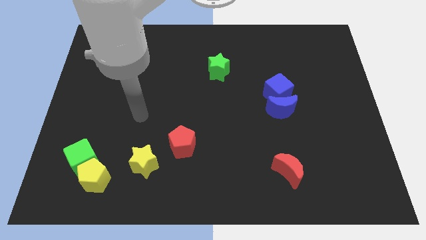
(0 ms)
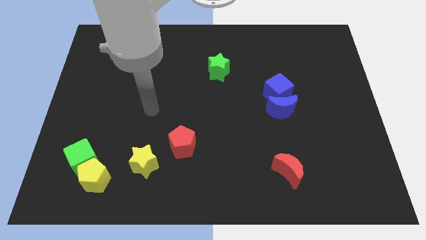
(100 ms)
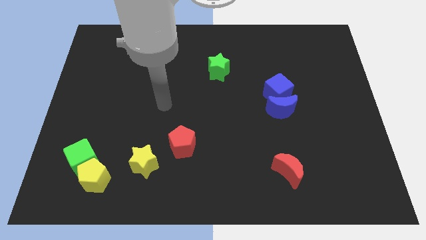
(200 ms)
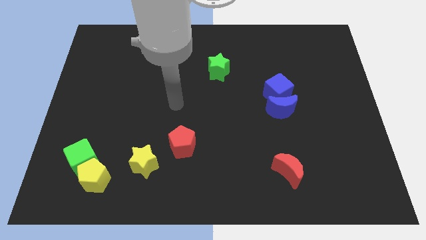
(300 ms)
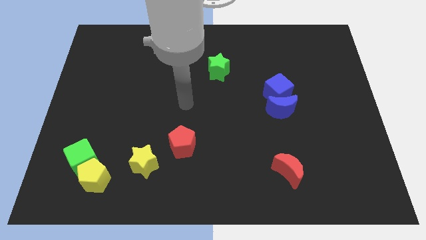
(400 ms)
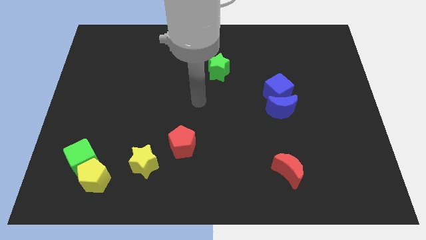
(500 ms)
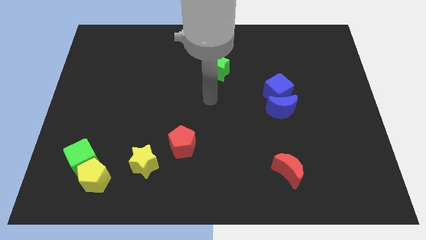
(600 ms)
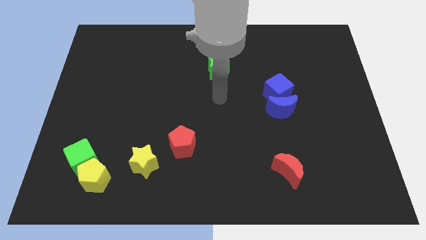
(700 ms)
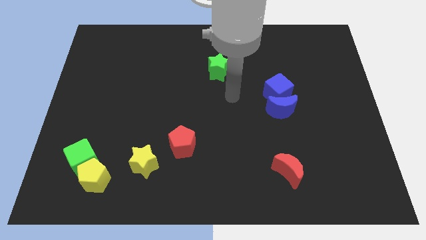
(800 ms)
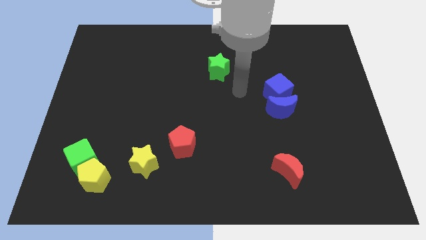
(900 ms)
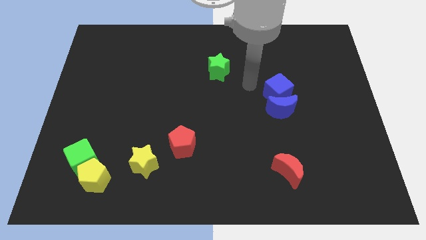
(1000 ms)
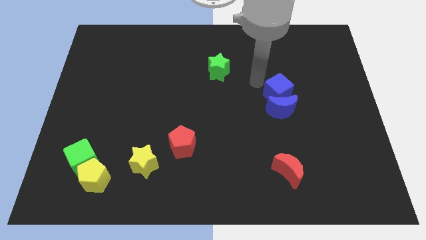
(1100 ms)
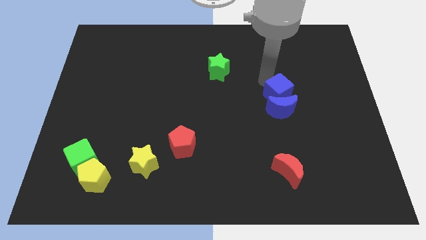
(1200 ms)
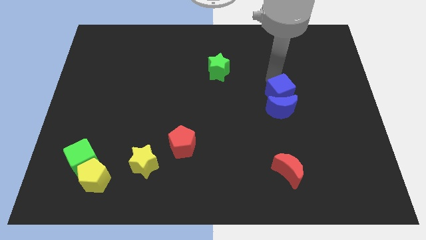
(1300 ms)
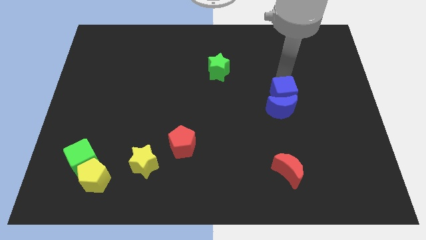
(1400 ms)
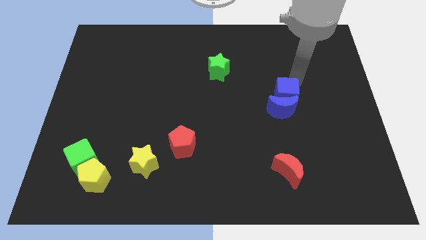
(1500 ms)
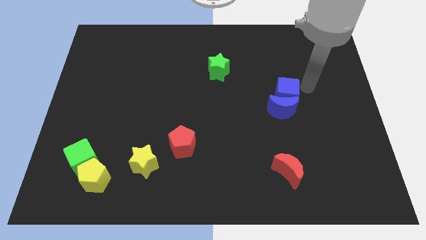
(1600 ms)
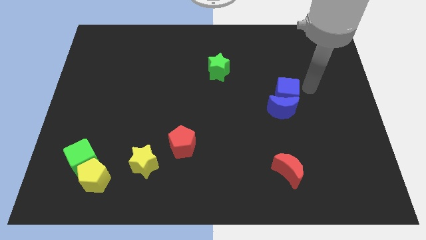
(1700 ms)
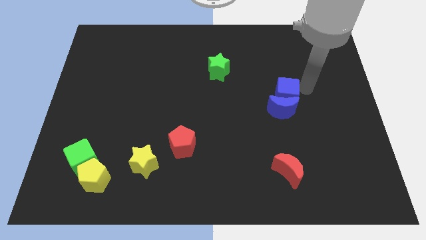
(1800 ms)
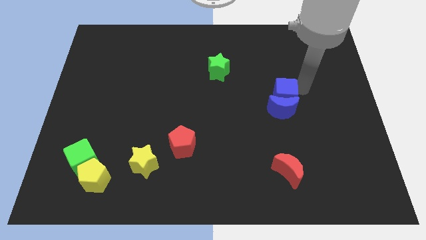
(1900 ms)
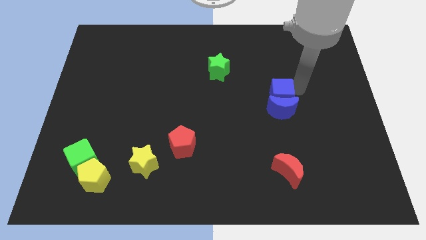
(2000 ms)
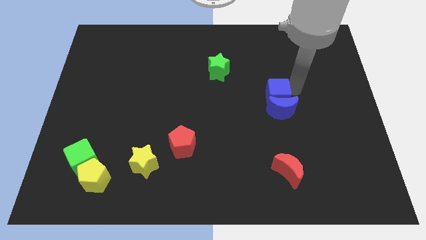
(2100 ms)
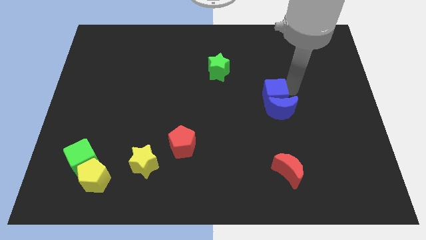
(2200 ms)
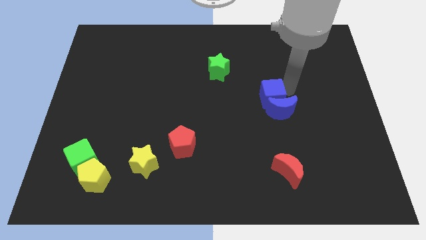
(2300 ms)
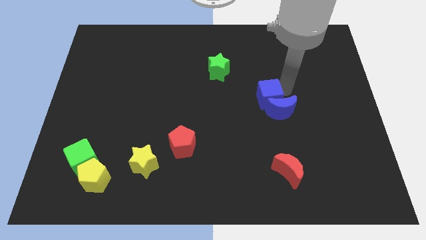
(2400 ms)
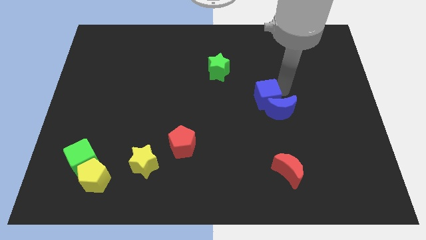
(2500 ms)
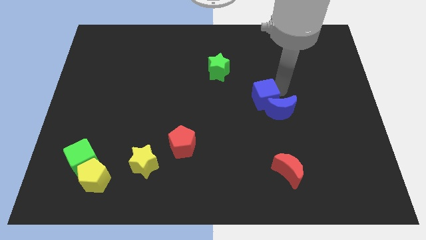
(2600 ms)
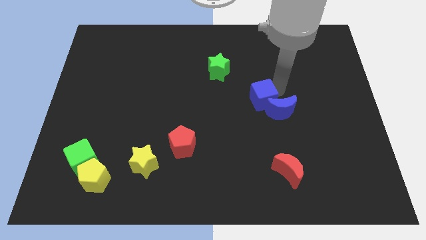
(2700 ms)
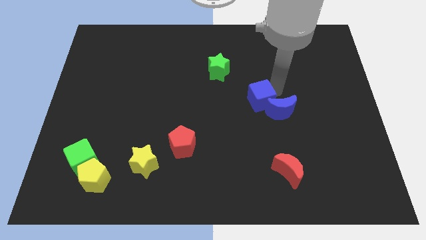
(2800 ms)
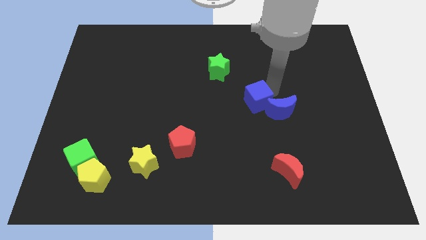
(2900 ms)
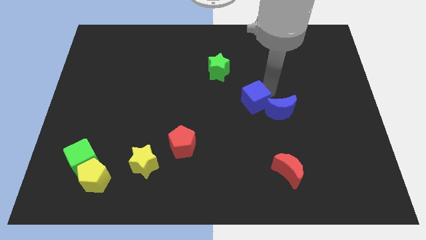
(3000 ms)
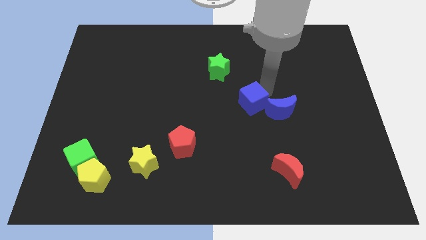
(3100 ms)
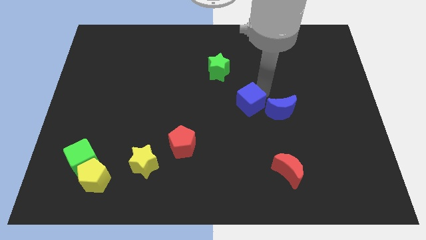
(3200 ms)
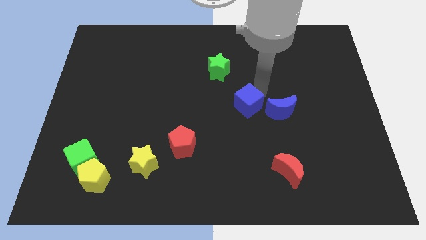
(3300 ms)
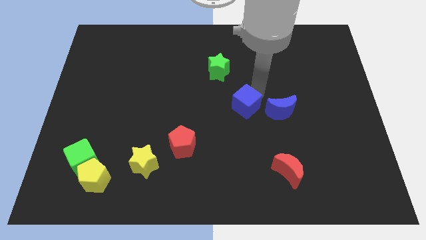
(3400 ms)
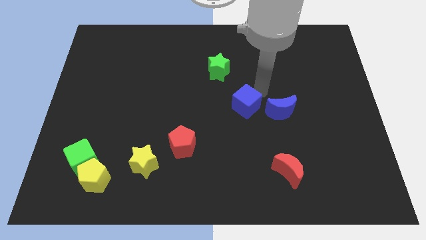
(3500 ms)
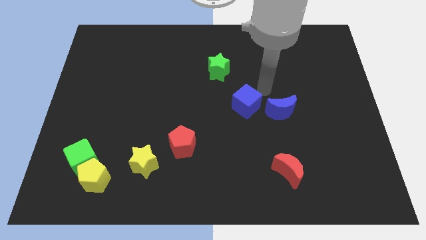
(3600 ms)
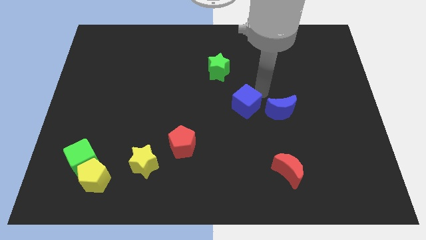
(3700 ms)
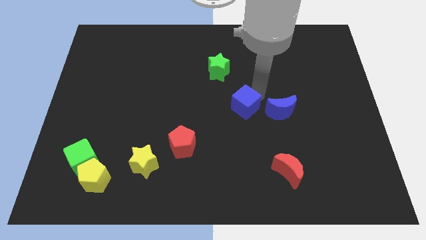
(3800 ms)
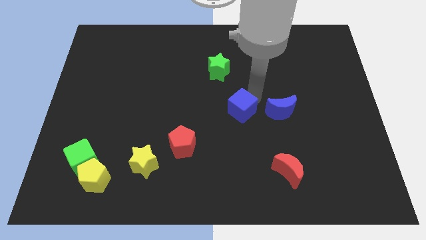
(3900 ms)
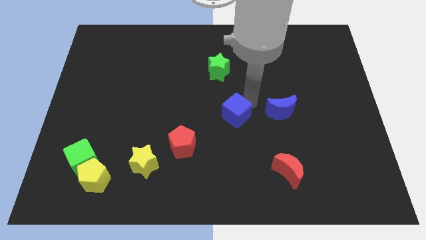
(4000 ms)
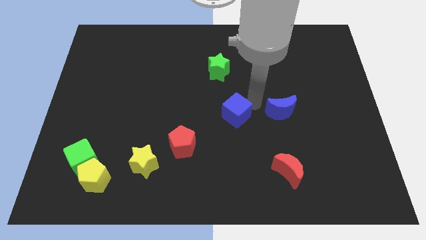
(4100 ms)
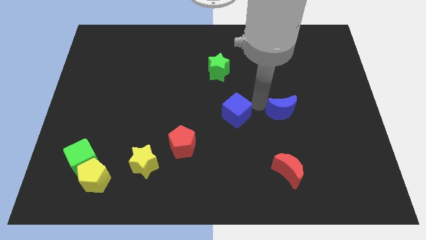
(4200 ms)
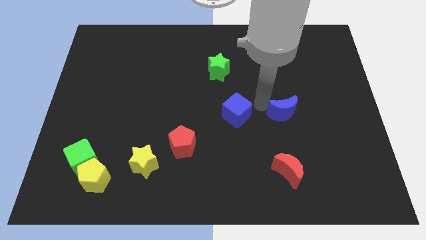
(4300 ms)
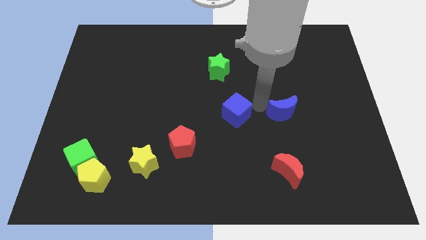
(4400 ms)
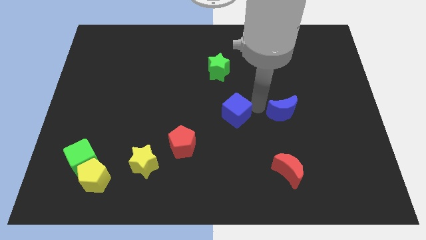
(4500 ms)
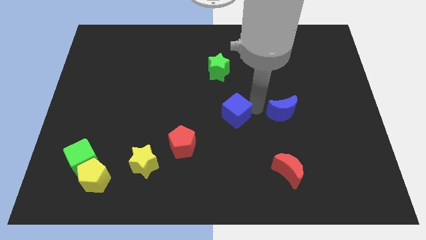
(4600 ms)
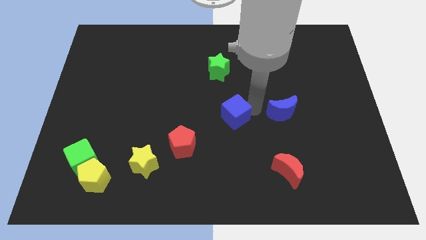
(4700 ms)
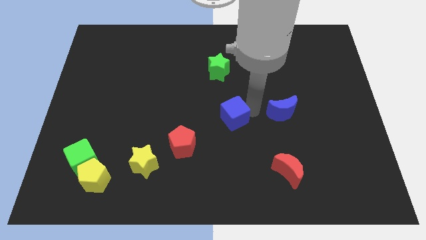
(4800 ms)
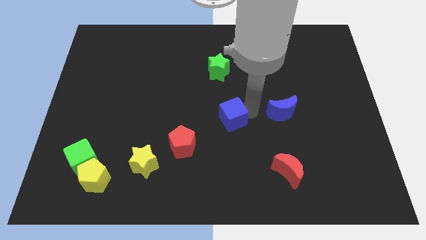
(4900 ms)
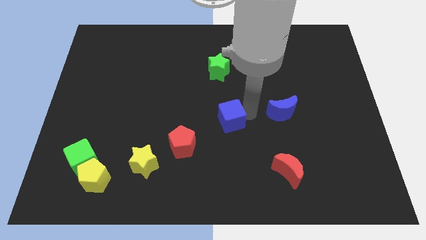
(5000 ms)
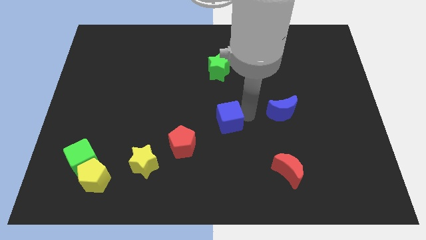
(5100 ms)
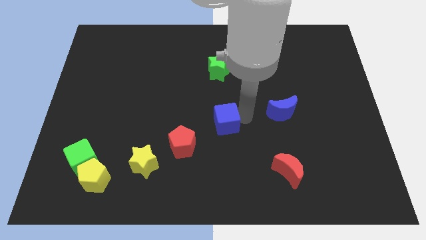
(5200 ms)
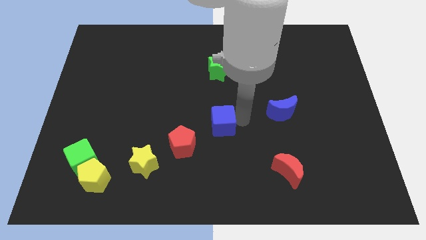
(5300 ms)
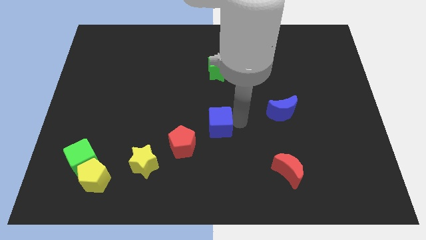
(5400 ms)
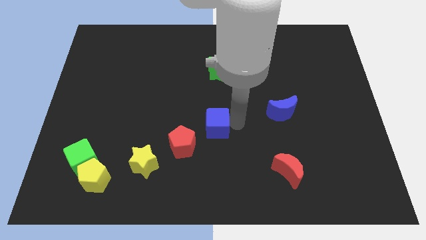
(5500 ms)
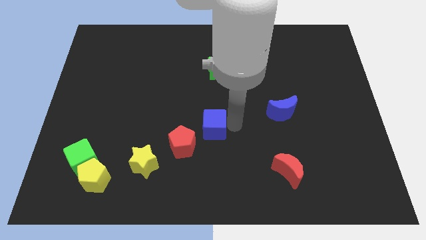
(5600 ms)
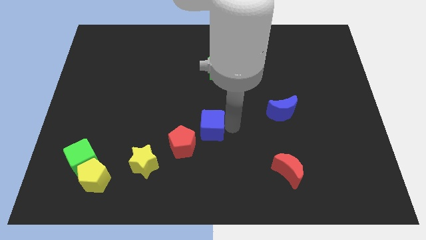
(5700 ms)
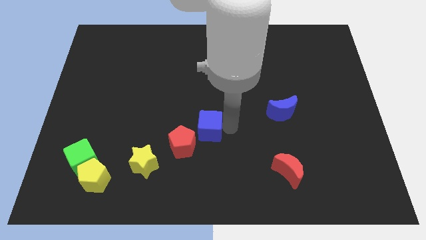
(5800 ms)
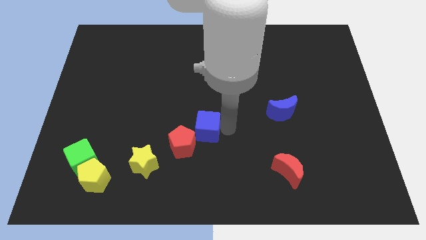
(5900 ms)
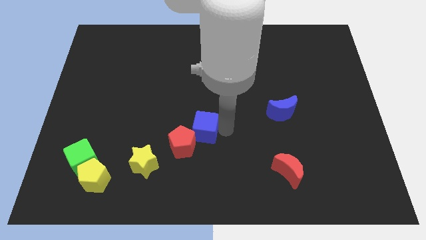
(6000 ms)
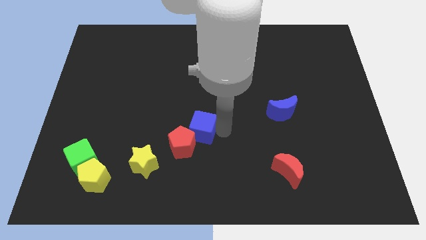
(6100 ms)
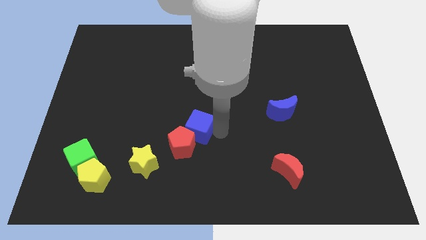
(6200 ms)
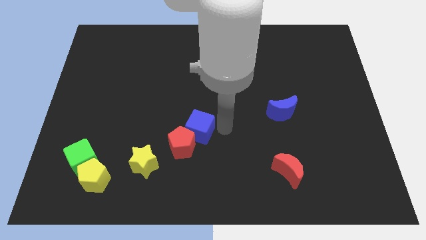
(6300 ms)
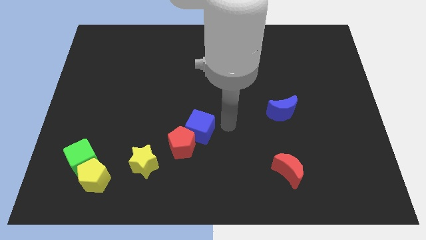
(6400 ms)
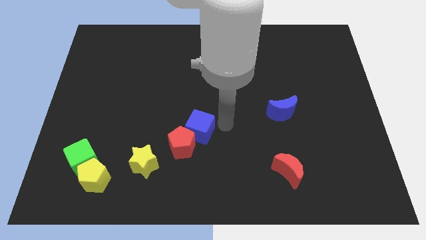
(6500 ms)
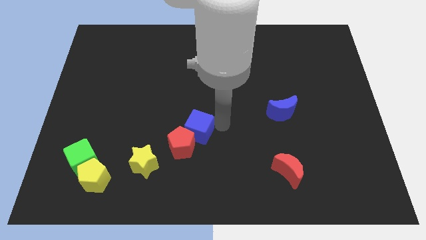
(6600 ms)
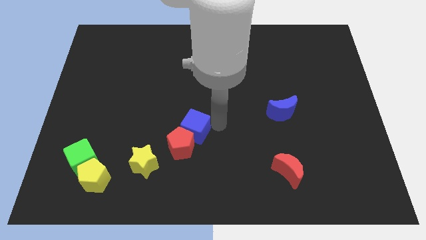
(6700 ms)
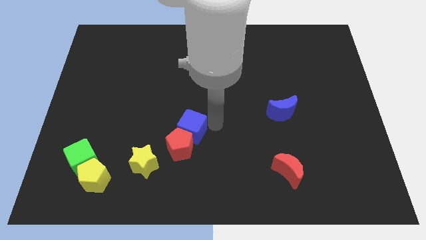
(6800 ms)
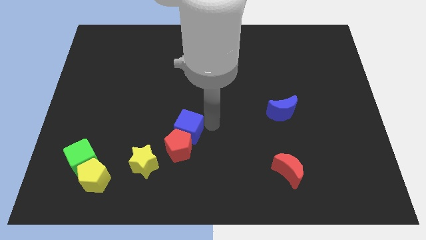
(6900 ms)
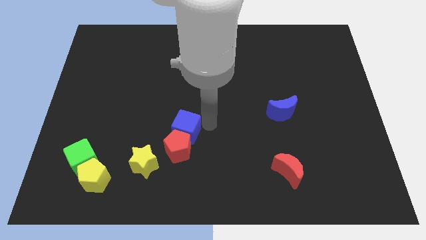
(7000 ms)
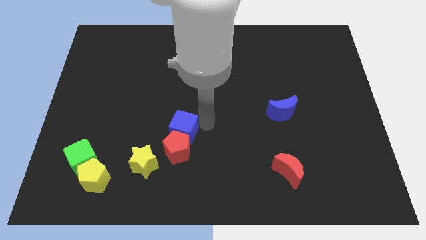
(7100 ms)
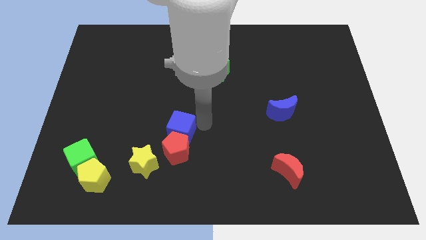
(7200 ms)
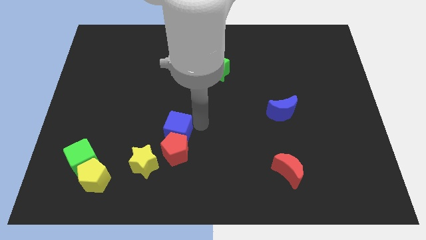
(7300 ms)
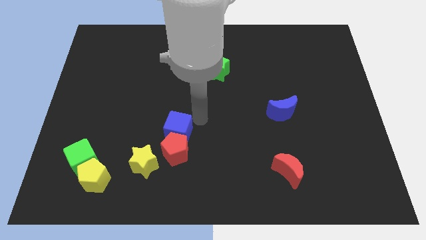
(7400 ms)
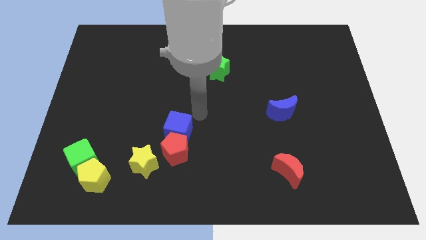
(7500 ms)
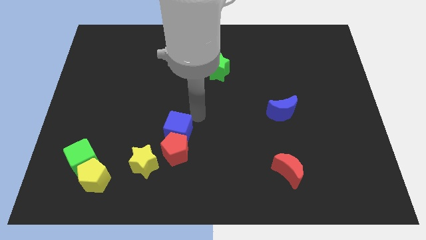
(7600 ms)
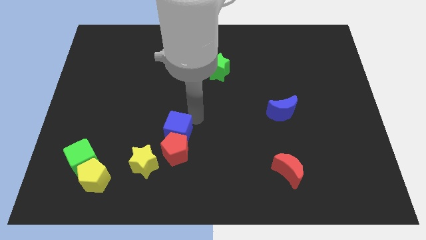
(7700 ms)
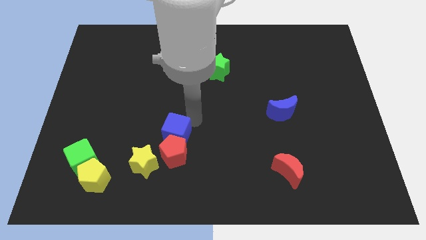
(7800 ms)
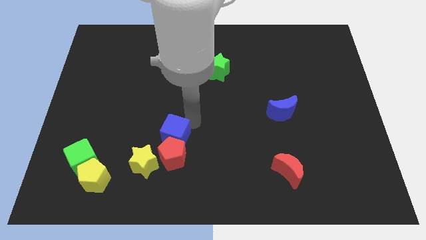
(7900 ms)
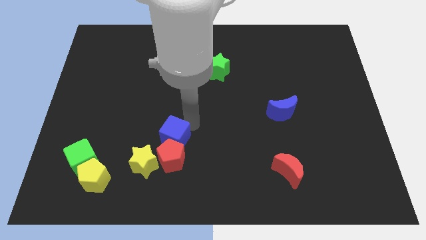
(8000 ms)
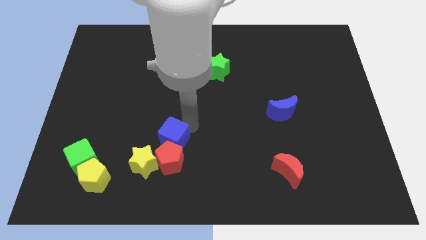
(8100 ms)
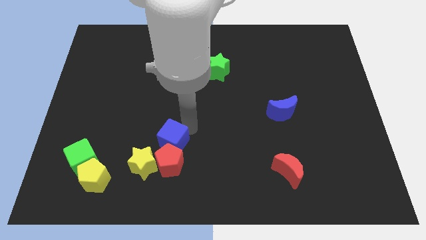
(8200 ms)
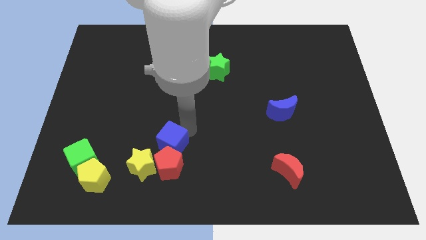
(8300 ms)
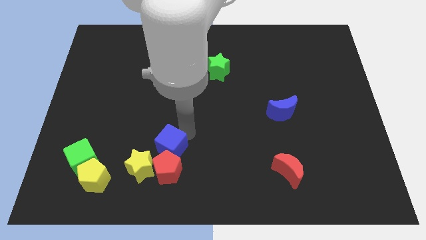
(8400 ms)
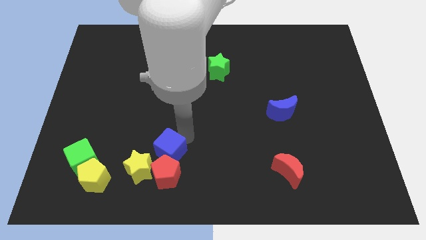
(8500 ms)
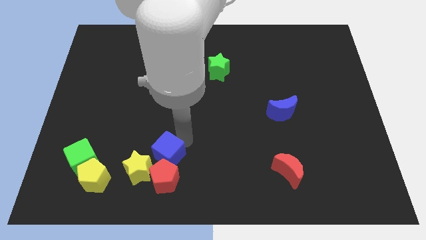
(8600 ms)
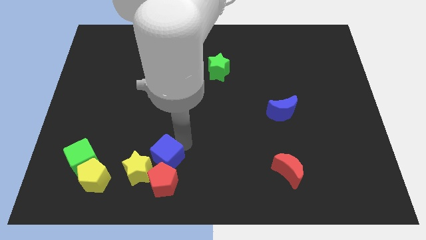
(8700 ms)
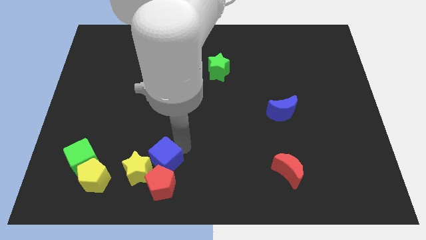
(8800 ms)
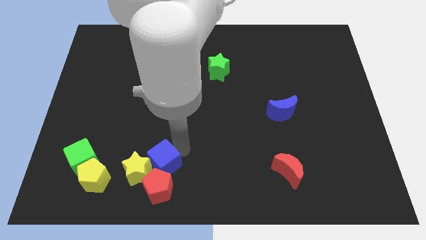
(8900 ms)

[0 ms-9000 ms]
move the blue cube towards the yellow star
